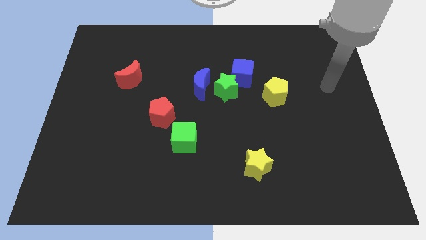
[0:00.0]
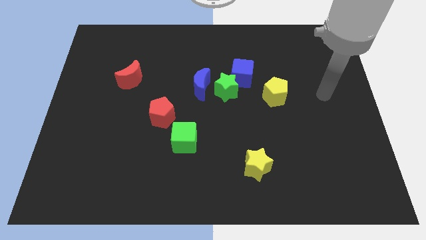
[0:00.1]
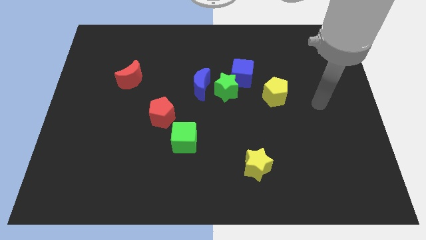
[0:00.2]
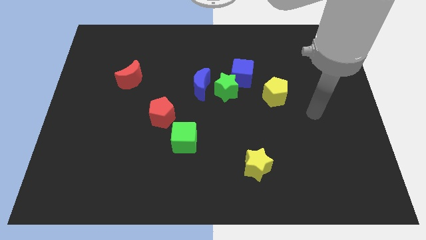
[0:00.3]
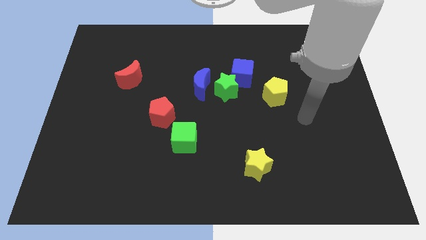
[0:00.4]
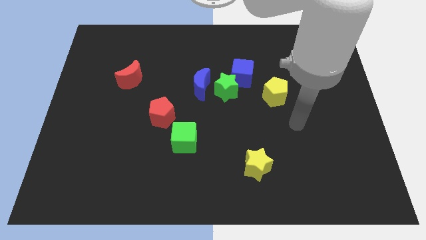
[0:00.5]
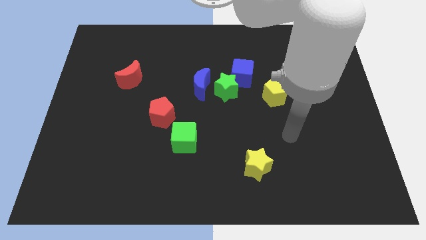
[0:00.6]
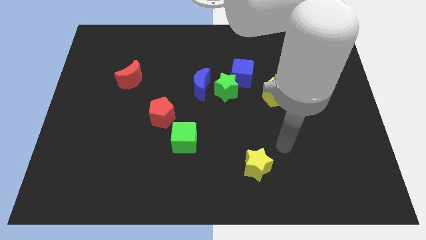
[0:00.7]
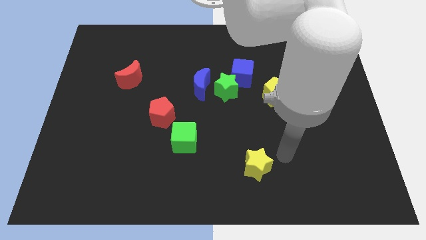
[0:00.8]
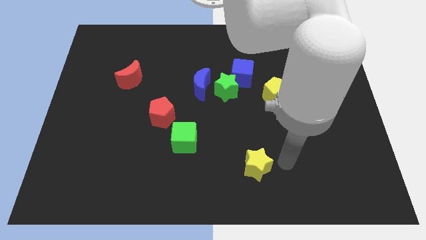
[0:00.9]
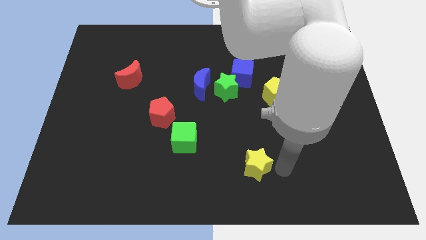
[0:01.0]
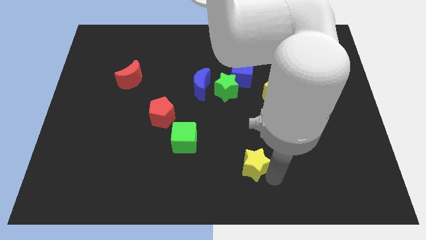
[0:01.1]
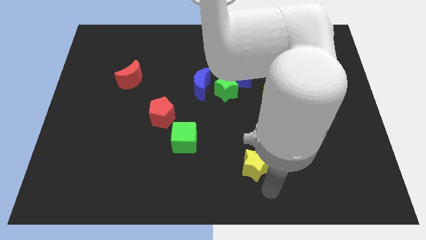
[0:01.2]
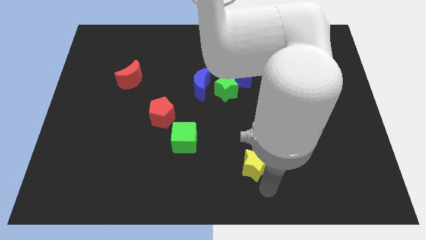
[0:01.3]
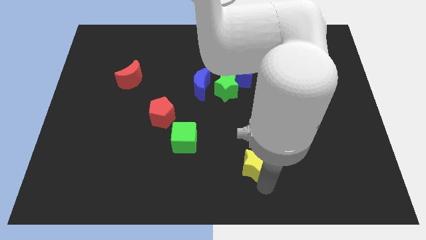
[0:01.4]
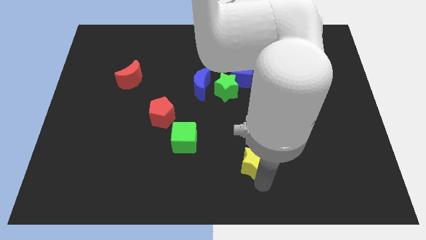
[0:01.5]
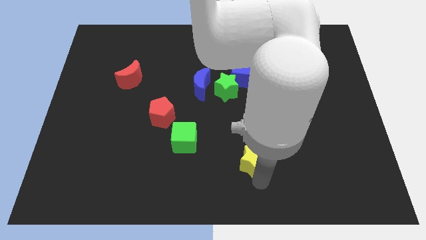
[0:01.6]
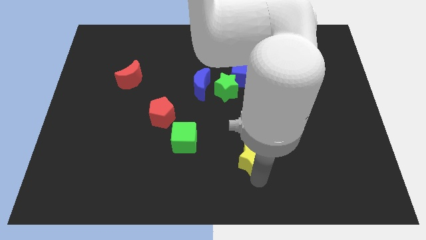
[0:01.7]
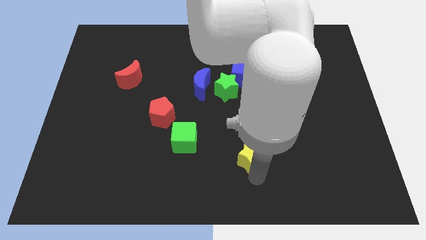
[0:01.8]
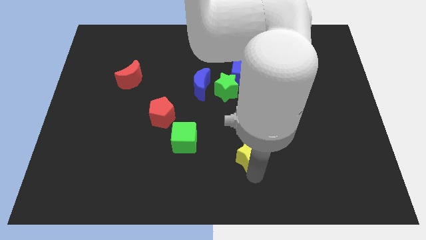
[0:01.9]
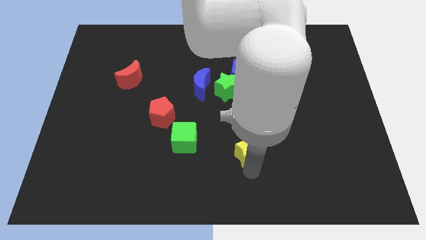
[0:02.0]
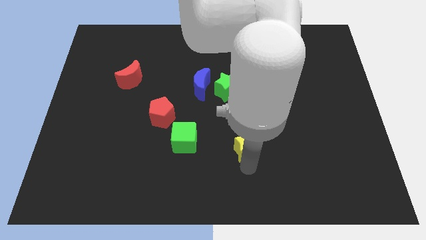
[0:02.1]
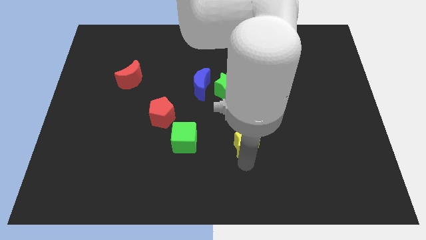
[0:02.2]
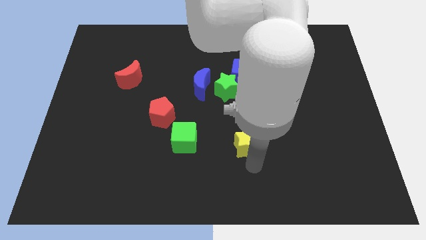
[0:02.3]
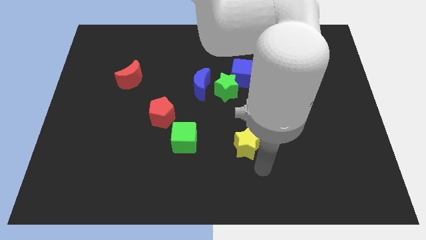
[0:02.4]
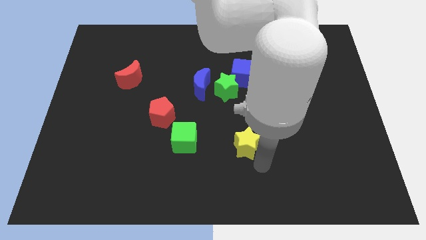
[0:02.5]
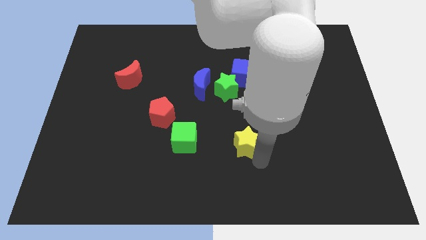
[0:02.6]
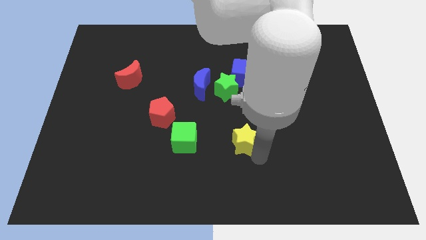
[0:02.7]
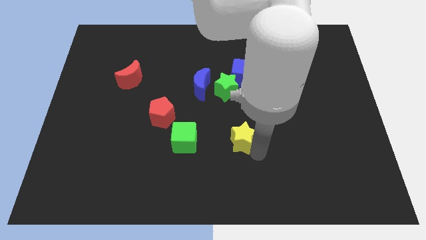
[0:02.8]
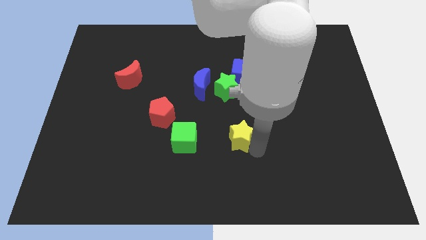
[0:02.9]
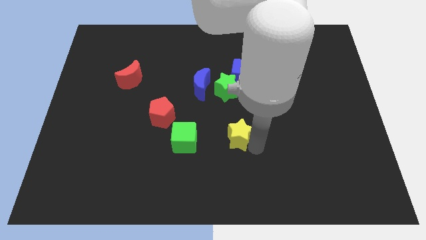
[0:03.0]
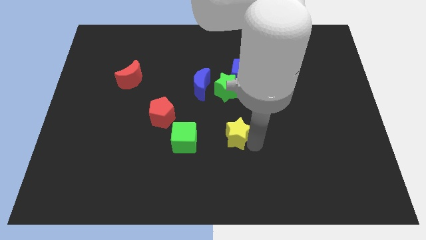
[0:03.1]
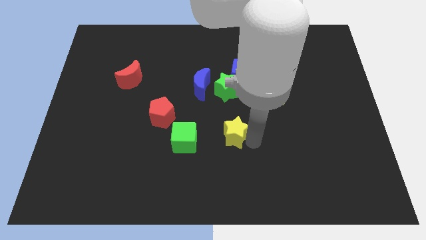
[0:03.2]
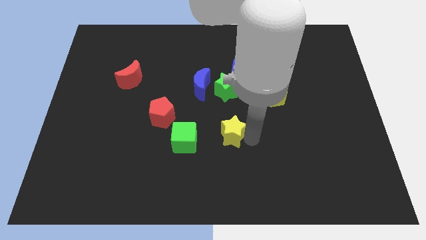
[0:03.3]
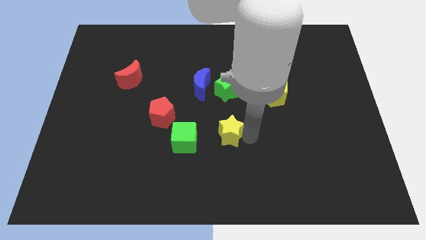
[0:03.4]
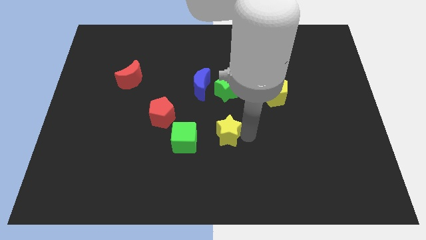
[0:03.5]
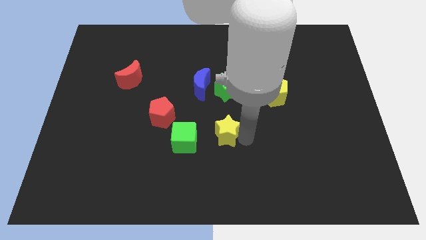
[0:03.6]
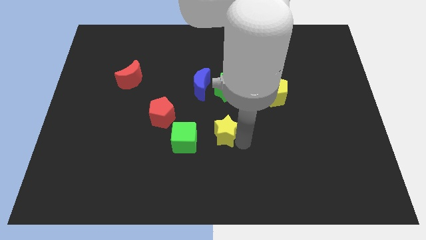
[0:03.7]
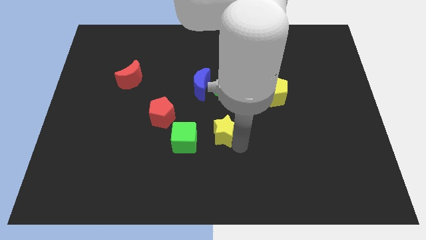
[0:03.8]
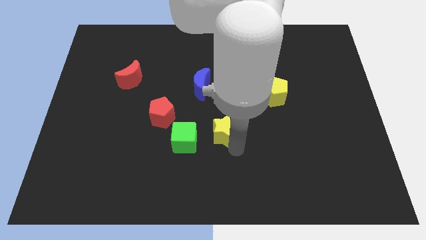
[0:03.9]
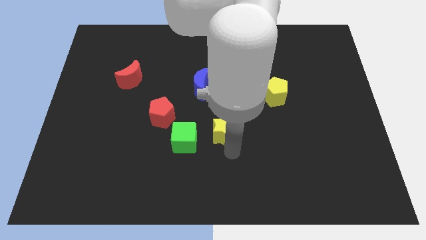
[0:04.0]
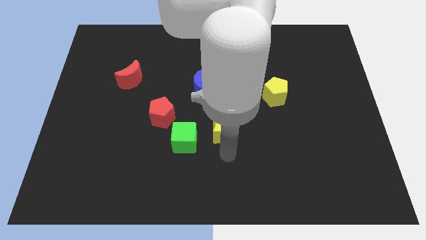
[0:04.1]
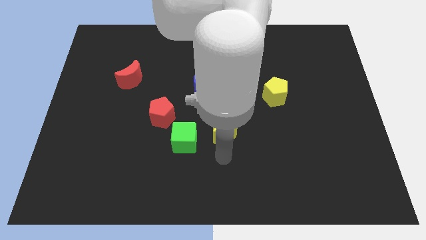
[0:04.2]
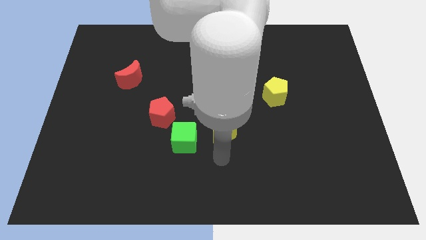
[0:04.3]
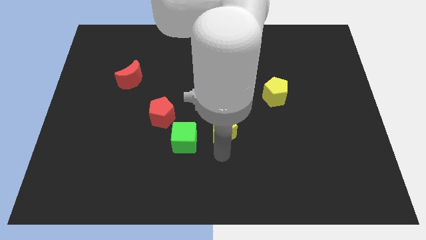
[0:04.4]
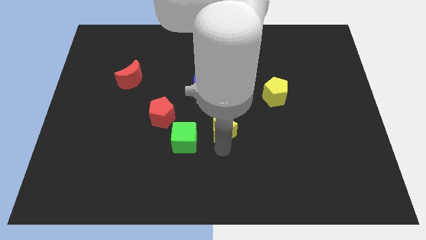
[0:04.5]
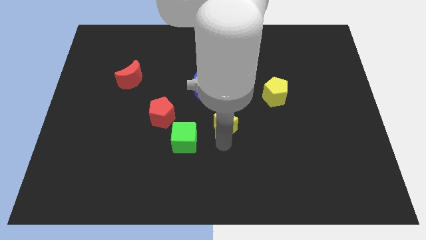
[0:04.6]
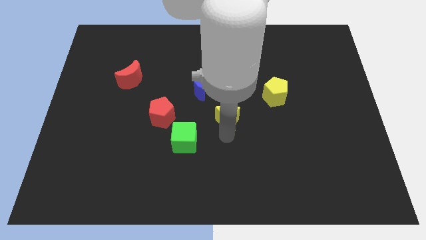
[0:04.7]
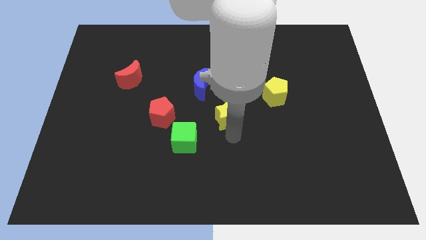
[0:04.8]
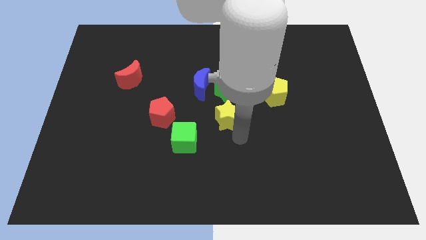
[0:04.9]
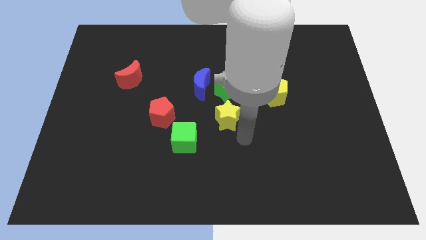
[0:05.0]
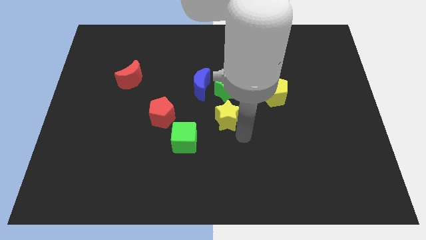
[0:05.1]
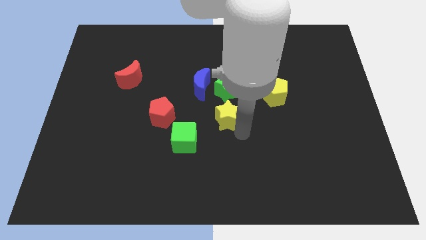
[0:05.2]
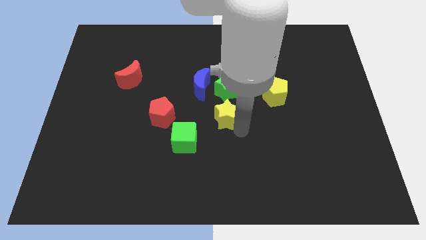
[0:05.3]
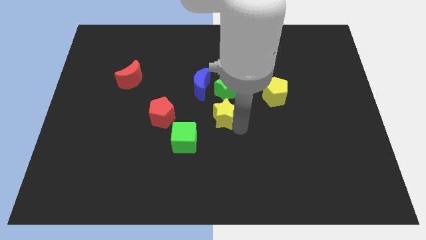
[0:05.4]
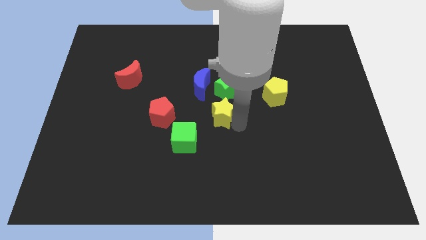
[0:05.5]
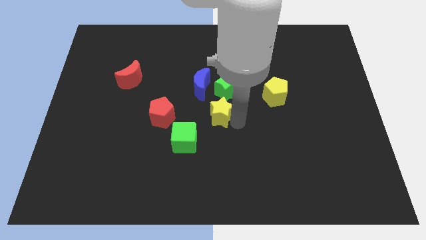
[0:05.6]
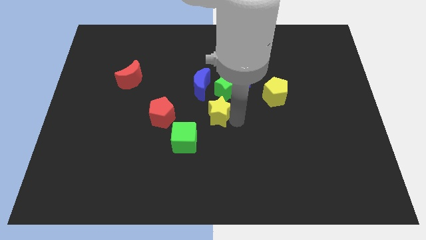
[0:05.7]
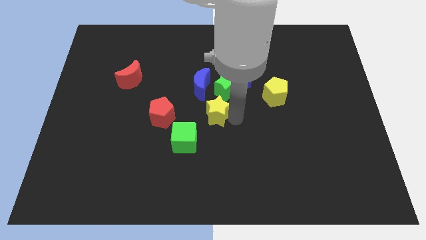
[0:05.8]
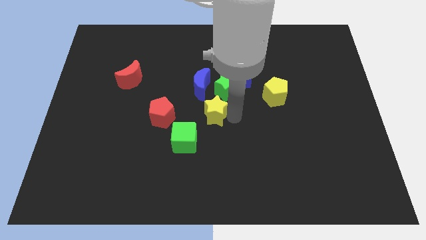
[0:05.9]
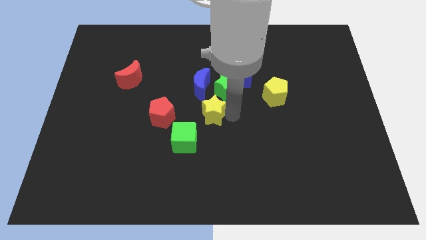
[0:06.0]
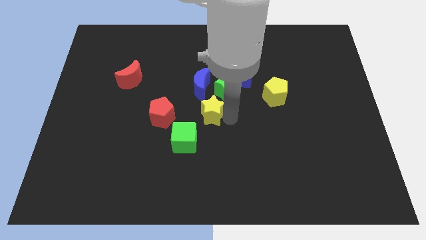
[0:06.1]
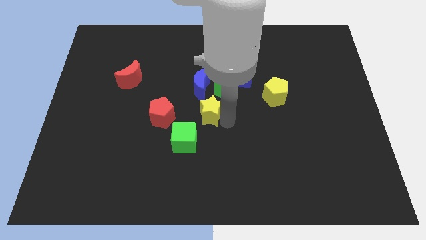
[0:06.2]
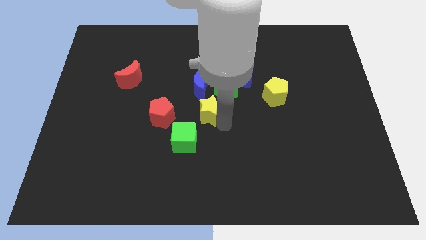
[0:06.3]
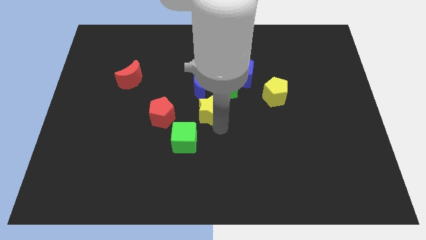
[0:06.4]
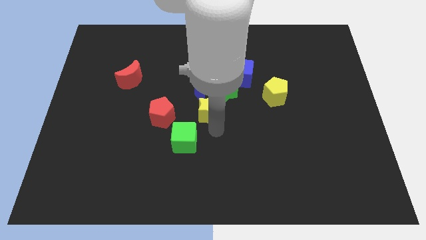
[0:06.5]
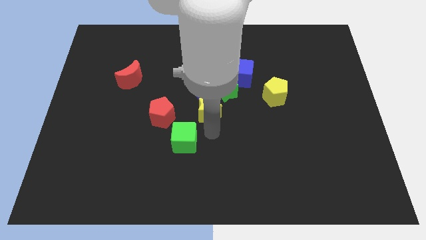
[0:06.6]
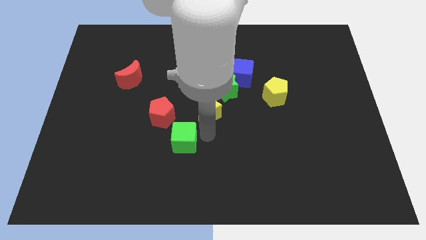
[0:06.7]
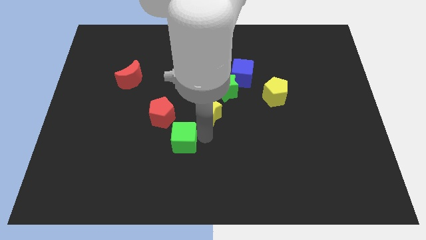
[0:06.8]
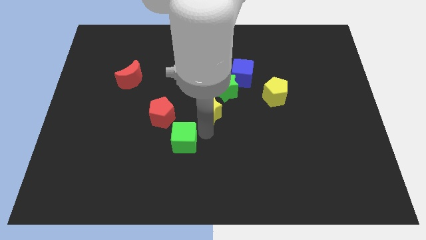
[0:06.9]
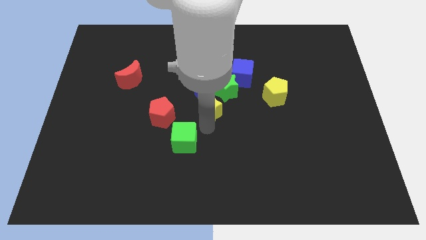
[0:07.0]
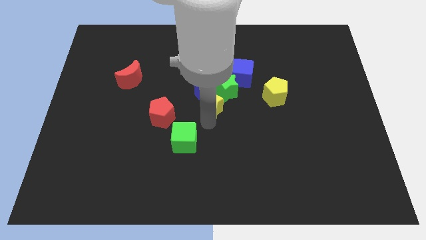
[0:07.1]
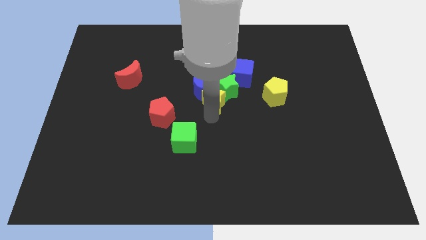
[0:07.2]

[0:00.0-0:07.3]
put the yellow star next to the blue moon

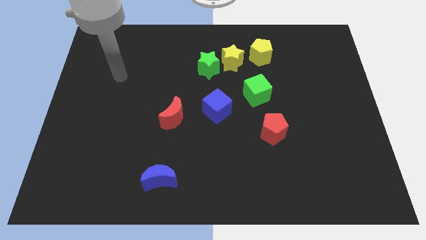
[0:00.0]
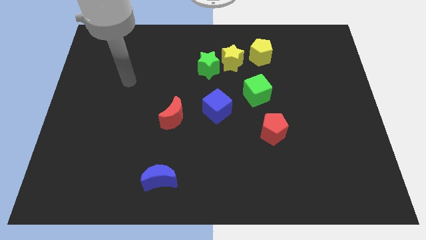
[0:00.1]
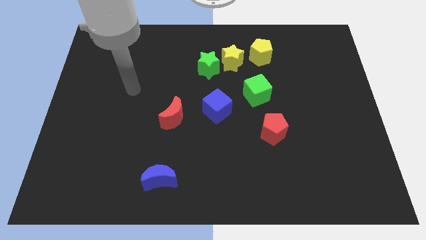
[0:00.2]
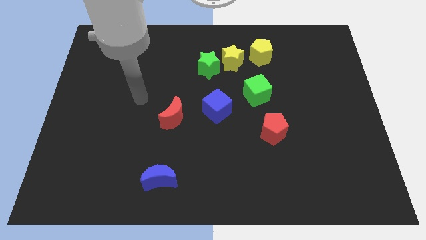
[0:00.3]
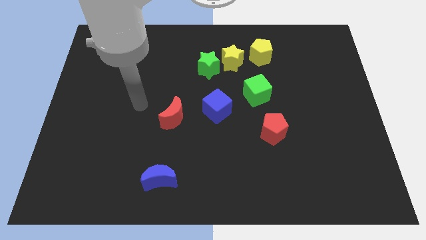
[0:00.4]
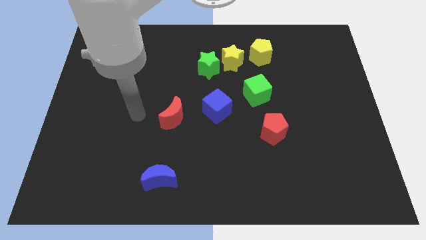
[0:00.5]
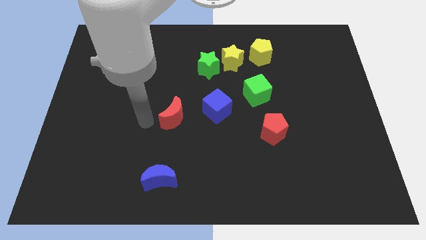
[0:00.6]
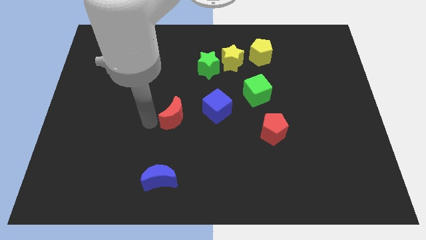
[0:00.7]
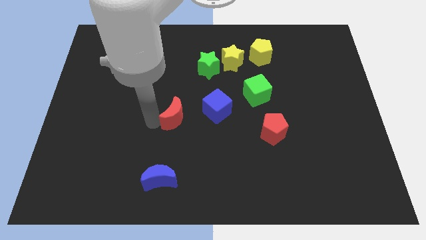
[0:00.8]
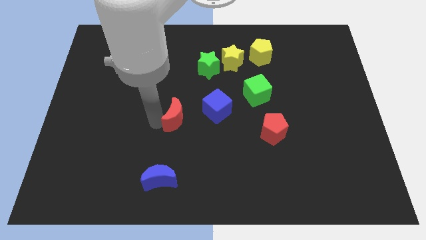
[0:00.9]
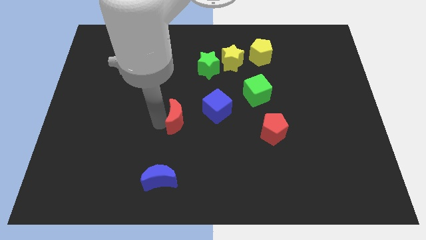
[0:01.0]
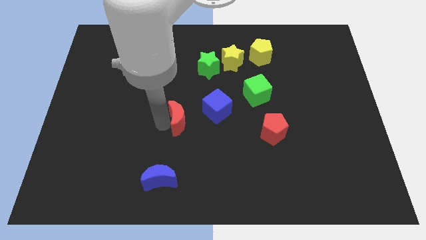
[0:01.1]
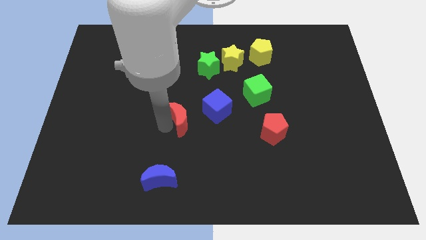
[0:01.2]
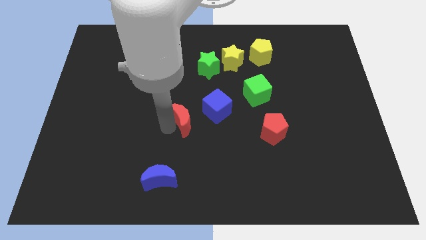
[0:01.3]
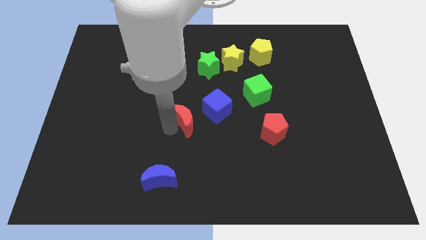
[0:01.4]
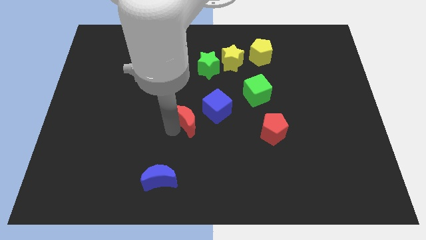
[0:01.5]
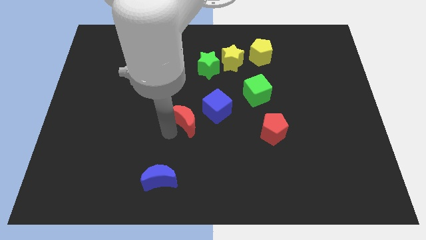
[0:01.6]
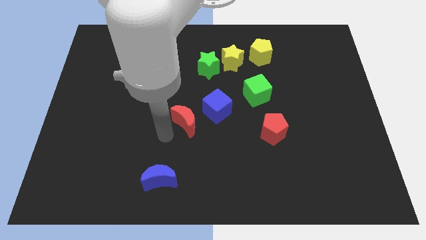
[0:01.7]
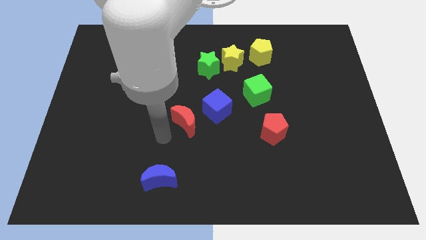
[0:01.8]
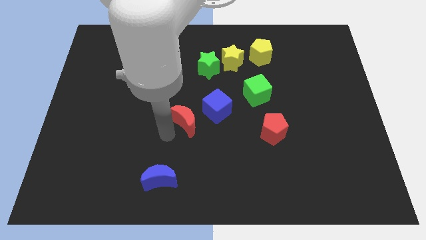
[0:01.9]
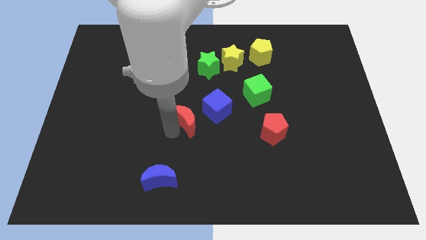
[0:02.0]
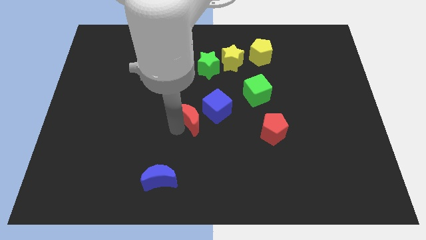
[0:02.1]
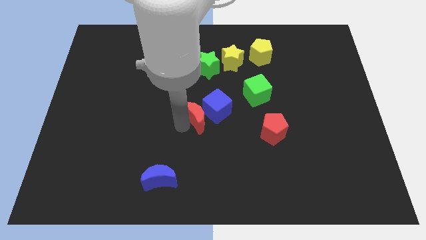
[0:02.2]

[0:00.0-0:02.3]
put the red moon to the blue cube
